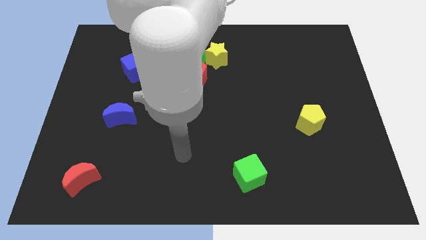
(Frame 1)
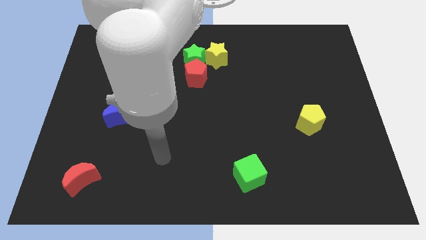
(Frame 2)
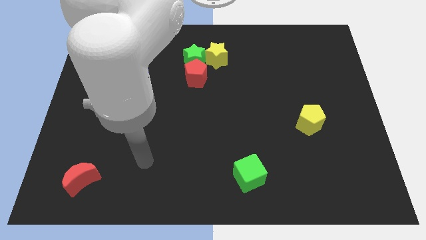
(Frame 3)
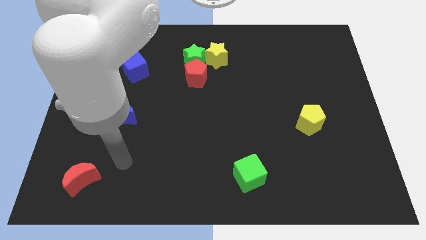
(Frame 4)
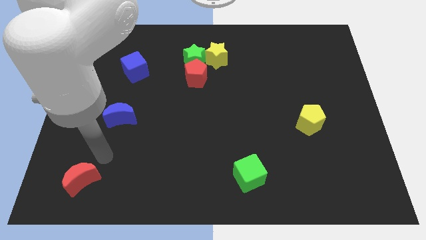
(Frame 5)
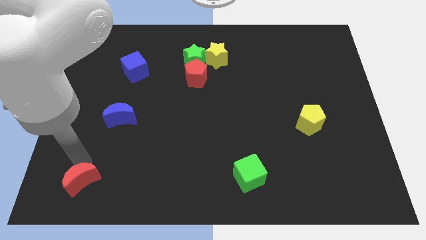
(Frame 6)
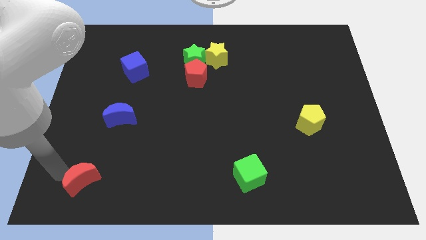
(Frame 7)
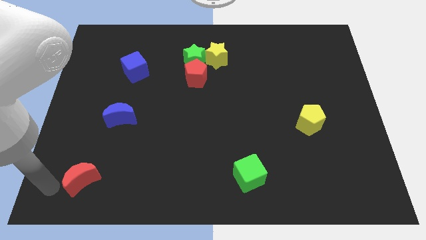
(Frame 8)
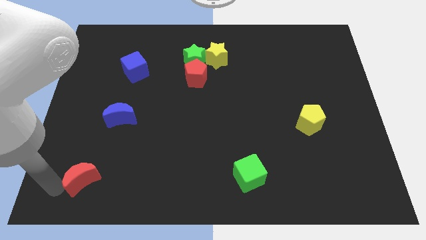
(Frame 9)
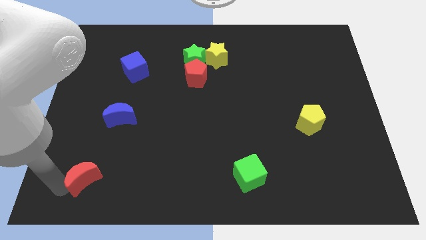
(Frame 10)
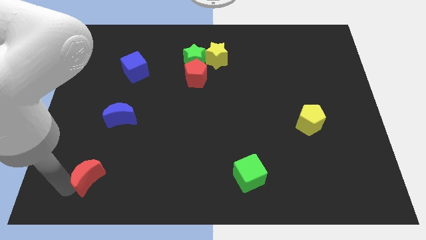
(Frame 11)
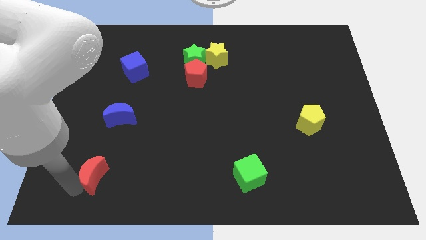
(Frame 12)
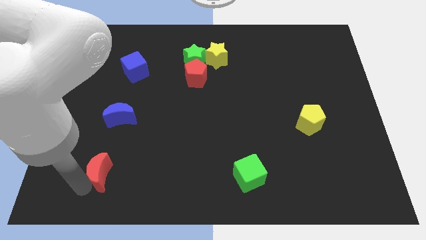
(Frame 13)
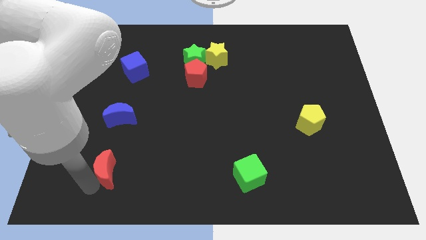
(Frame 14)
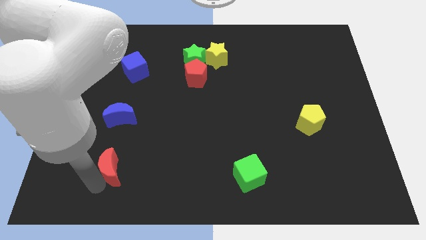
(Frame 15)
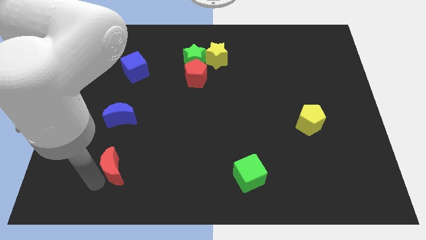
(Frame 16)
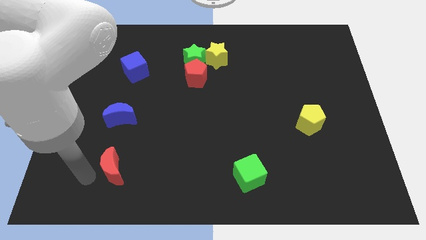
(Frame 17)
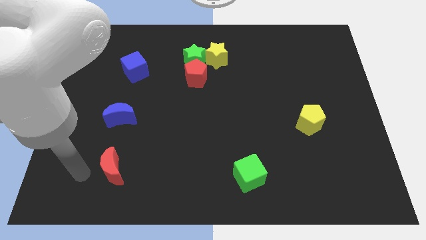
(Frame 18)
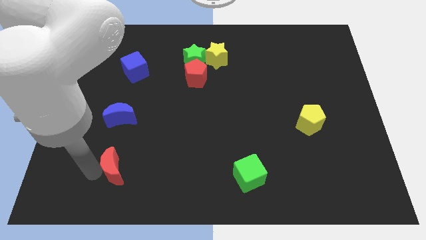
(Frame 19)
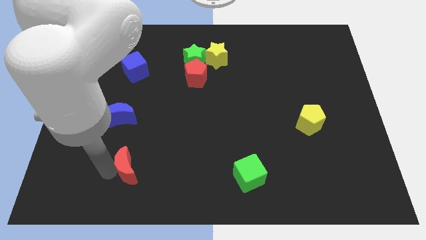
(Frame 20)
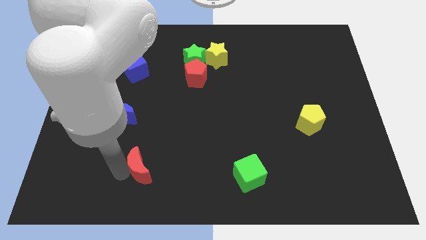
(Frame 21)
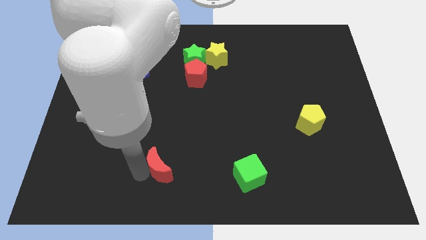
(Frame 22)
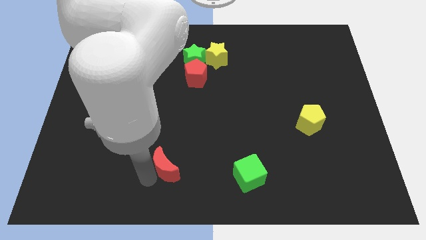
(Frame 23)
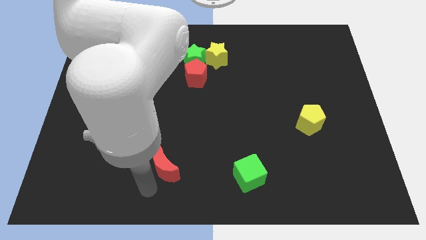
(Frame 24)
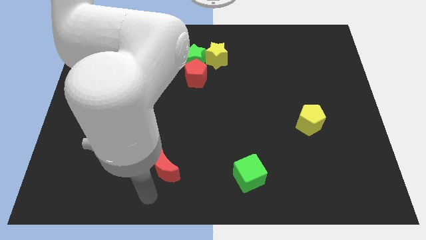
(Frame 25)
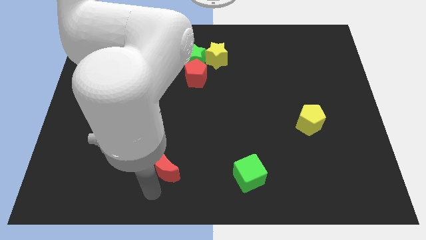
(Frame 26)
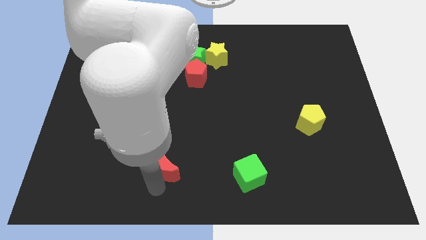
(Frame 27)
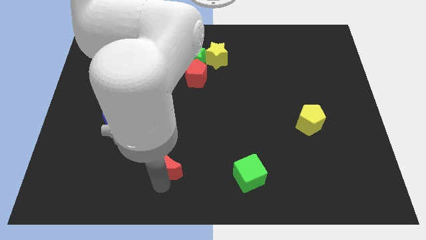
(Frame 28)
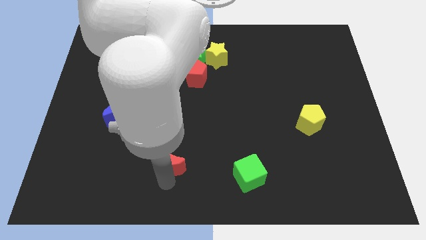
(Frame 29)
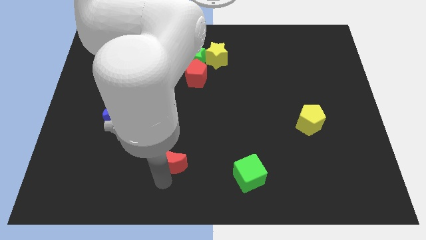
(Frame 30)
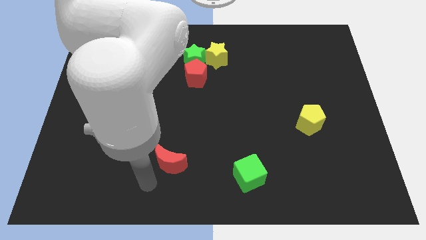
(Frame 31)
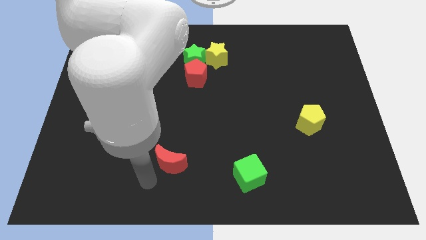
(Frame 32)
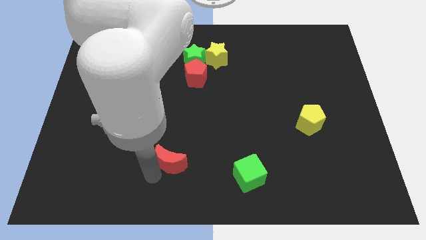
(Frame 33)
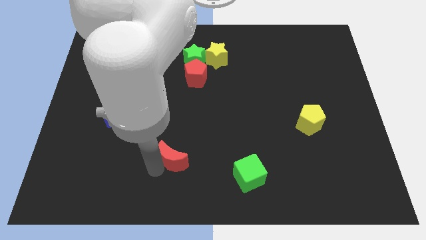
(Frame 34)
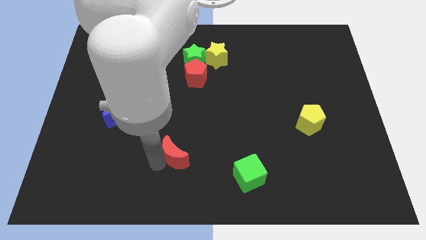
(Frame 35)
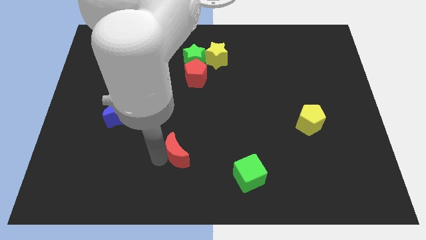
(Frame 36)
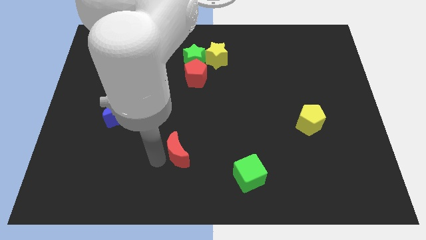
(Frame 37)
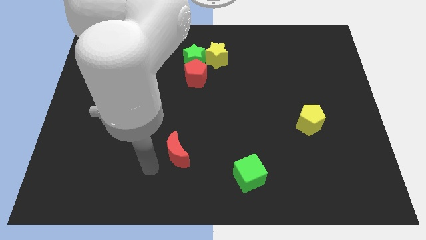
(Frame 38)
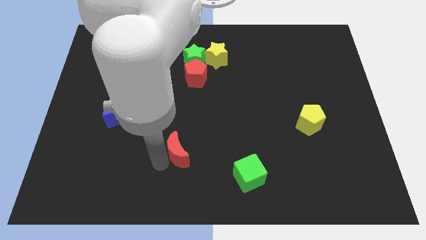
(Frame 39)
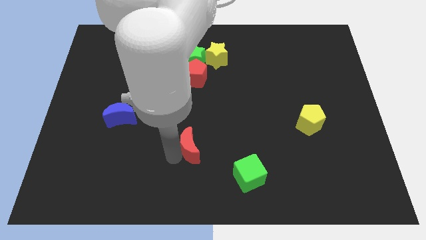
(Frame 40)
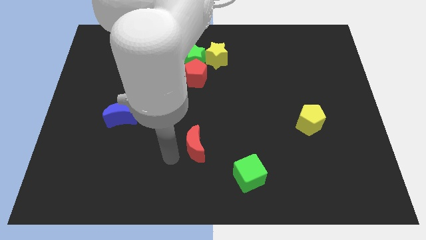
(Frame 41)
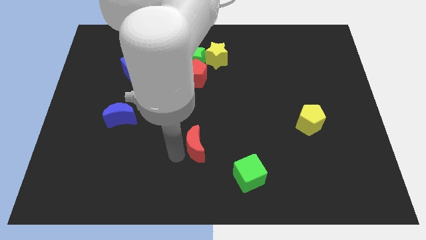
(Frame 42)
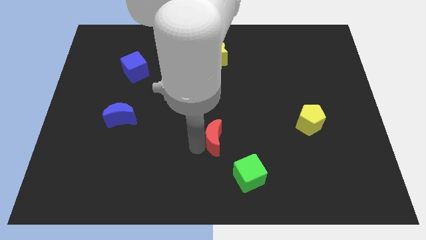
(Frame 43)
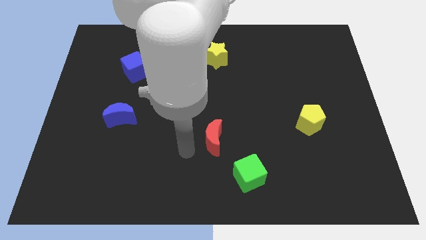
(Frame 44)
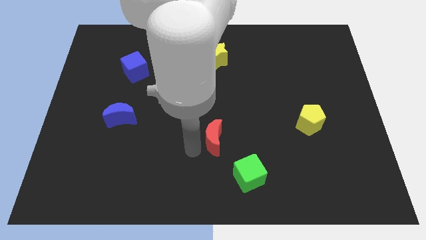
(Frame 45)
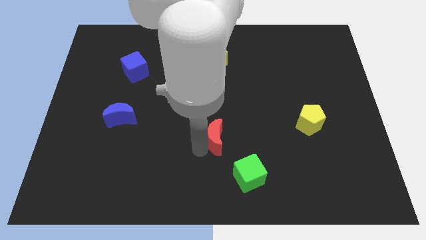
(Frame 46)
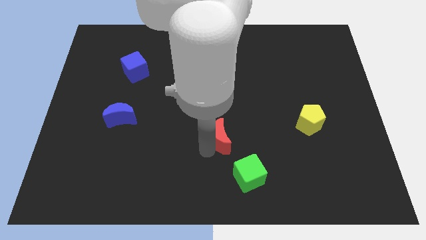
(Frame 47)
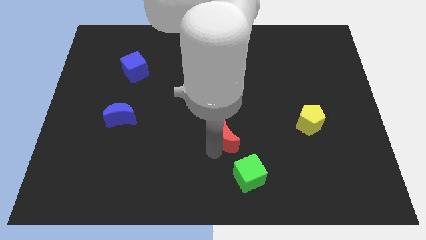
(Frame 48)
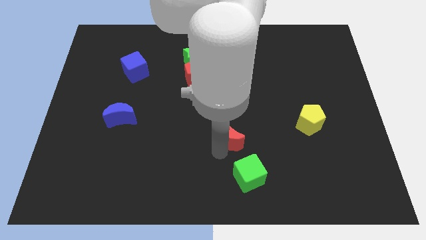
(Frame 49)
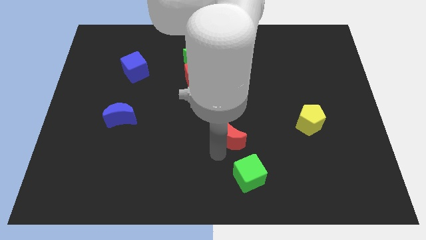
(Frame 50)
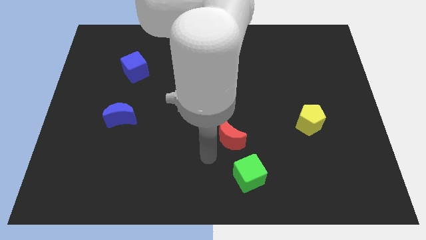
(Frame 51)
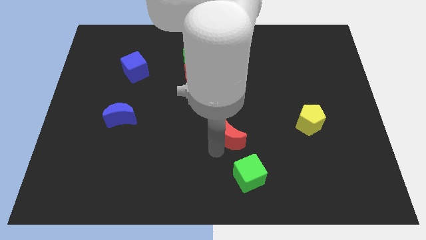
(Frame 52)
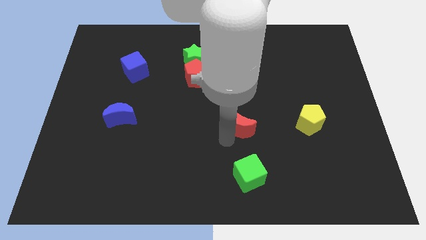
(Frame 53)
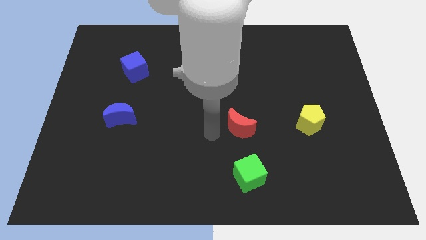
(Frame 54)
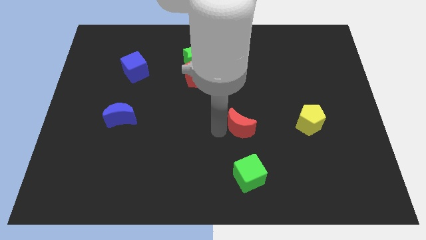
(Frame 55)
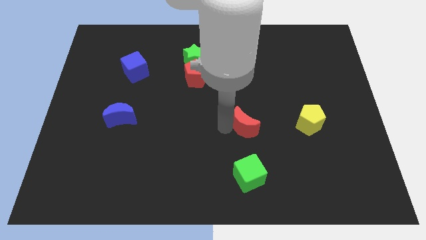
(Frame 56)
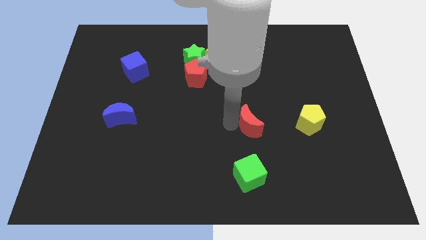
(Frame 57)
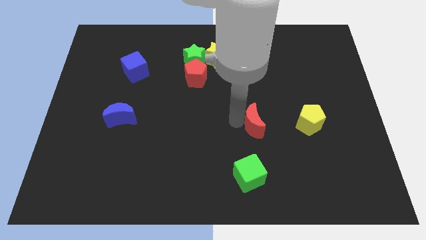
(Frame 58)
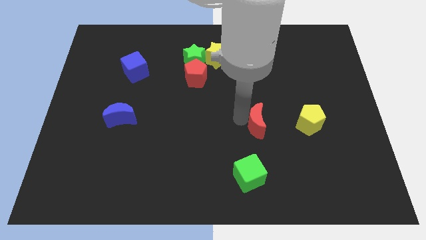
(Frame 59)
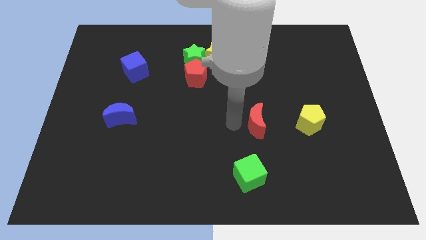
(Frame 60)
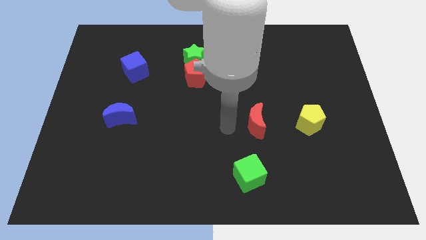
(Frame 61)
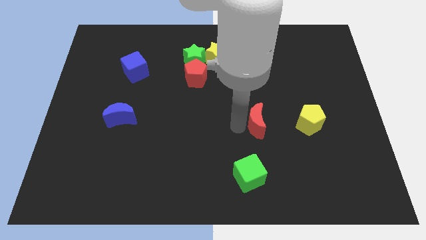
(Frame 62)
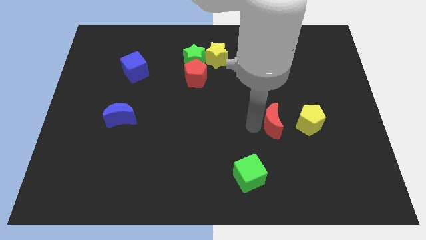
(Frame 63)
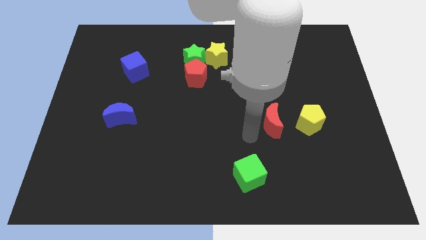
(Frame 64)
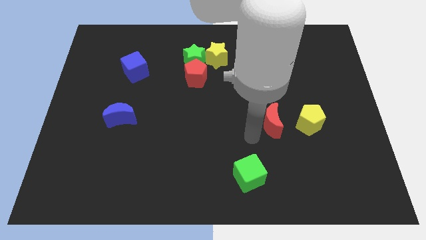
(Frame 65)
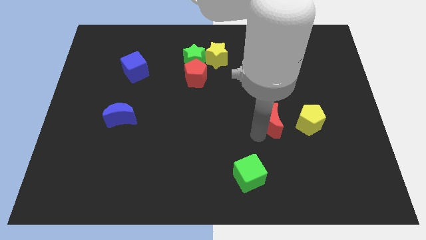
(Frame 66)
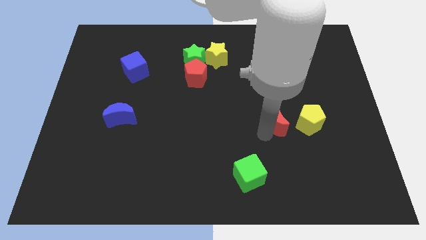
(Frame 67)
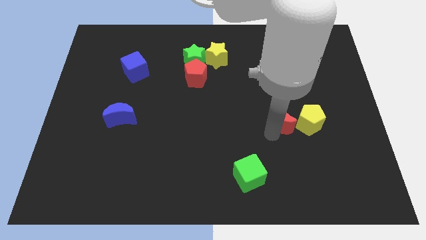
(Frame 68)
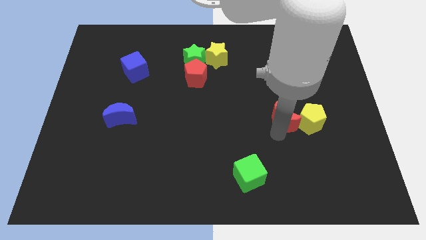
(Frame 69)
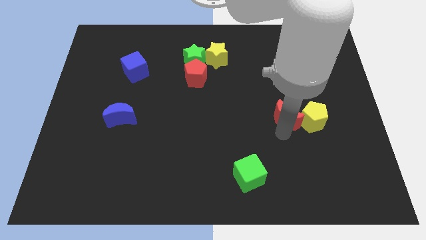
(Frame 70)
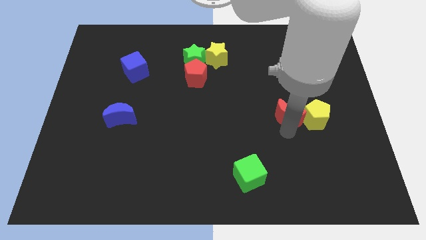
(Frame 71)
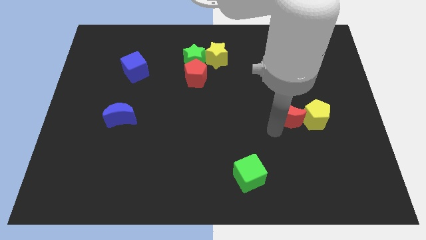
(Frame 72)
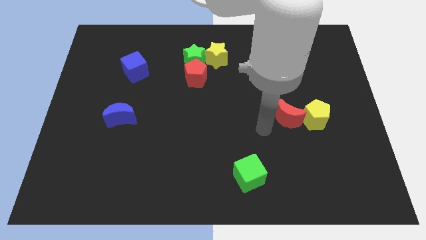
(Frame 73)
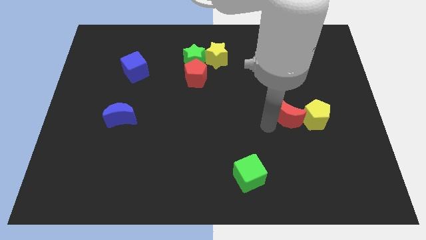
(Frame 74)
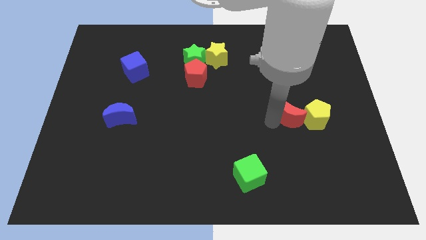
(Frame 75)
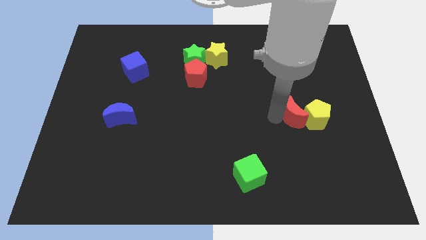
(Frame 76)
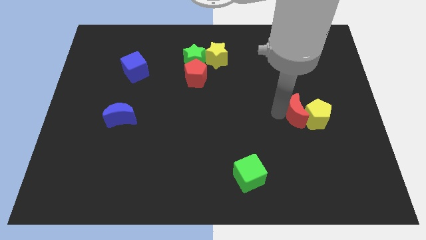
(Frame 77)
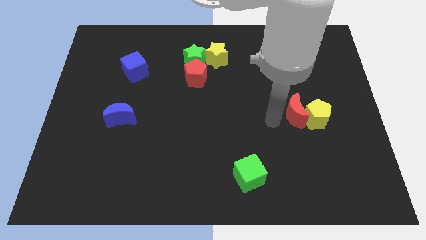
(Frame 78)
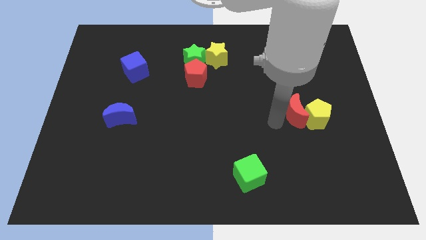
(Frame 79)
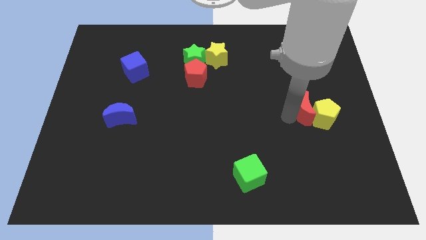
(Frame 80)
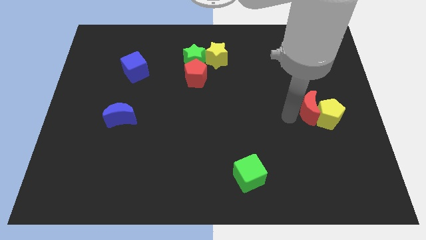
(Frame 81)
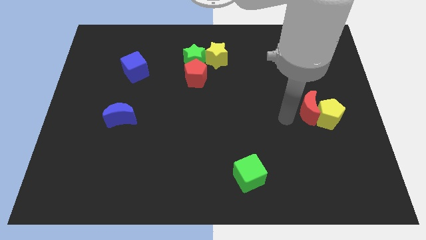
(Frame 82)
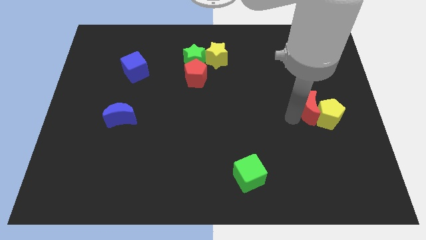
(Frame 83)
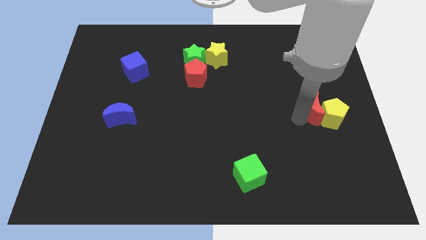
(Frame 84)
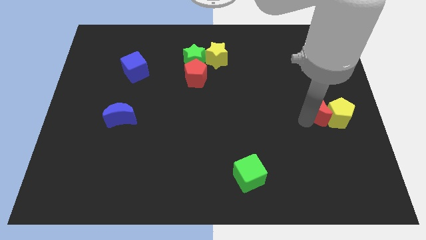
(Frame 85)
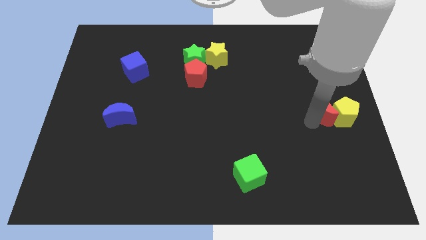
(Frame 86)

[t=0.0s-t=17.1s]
put the red moon to the right side
